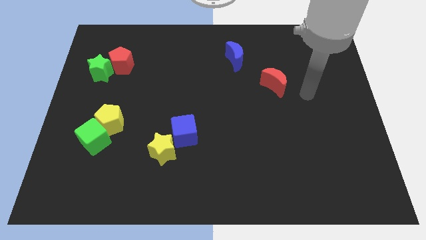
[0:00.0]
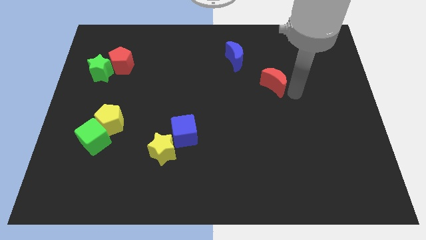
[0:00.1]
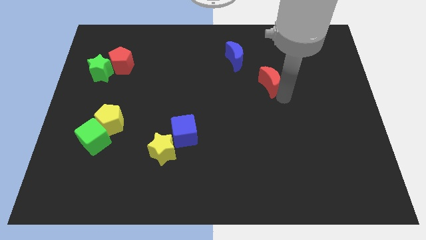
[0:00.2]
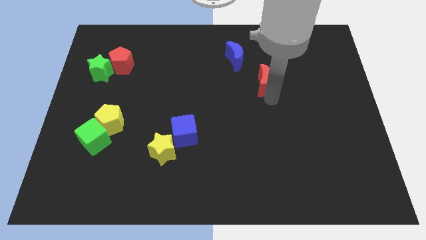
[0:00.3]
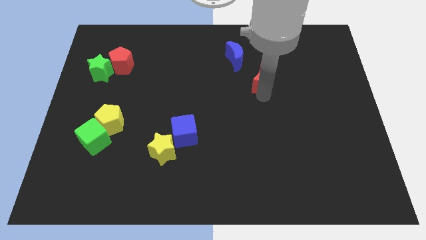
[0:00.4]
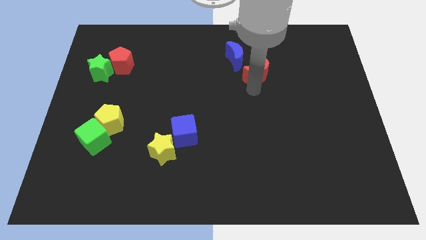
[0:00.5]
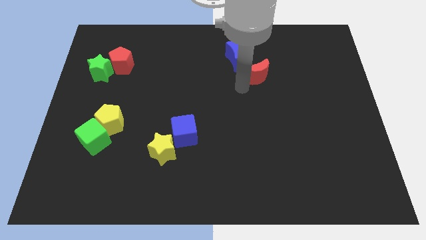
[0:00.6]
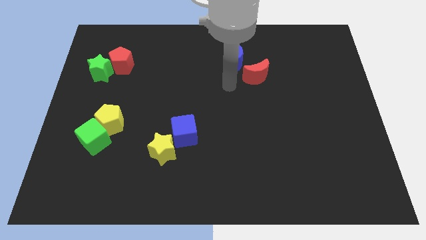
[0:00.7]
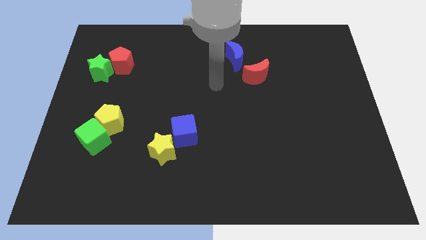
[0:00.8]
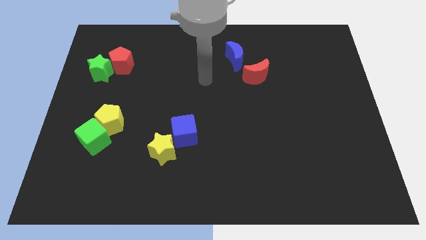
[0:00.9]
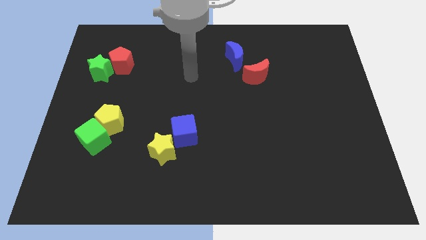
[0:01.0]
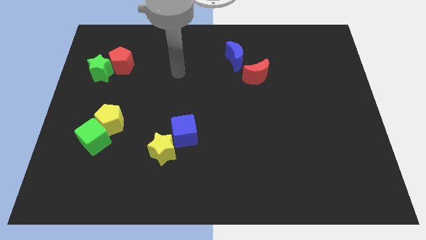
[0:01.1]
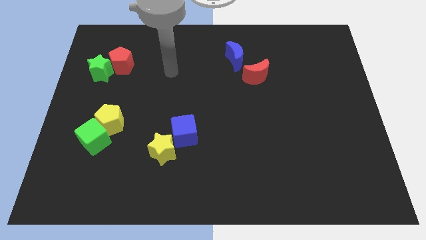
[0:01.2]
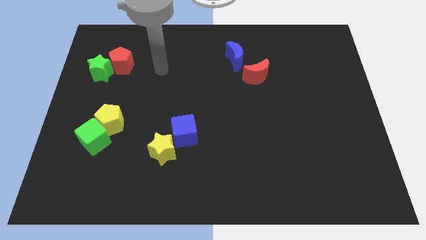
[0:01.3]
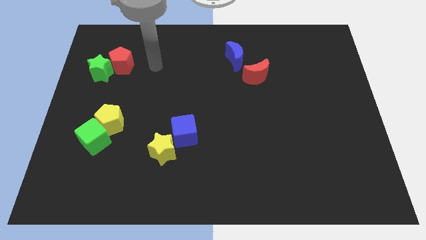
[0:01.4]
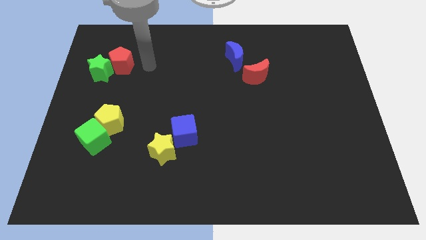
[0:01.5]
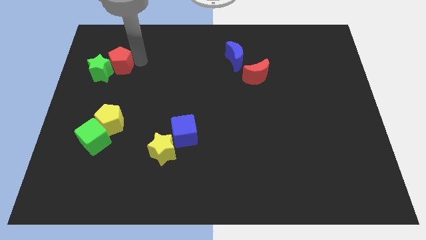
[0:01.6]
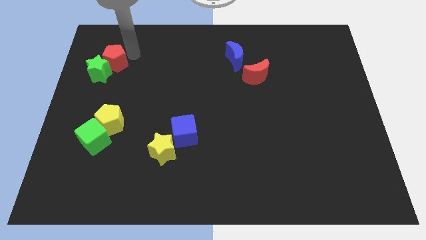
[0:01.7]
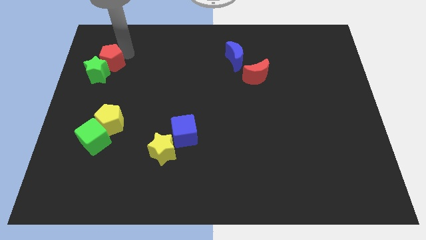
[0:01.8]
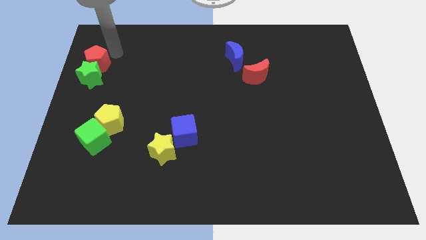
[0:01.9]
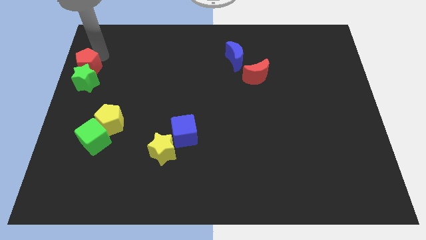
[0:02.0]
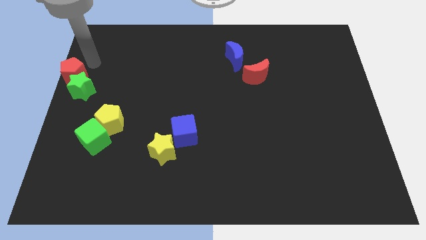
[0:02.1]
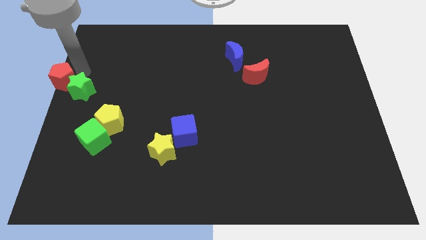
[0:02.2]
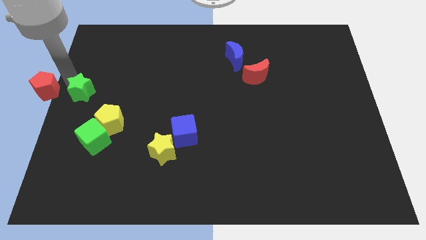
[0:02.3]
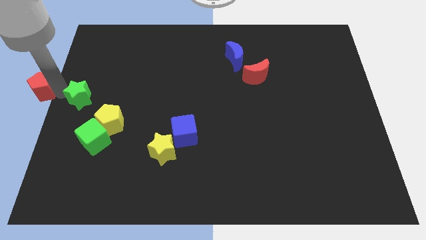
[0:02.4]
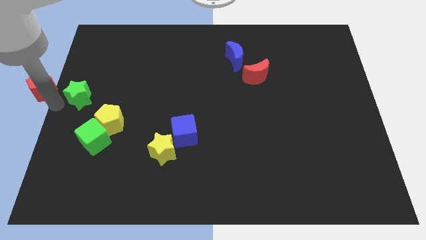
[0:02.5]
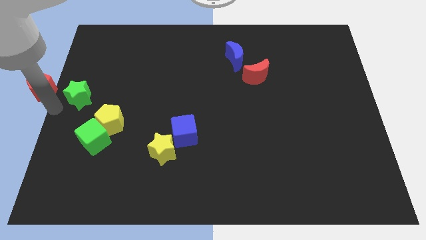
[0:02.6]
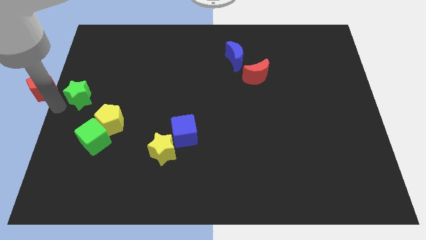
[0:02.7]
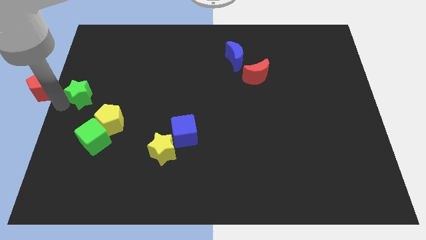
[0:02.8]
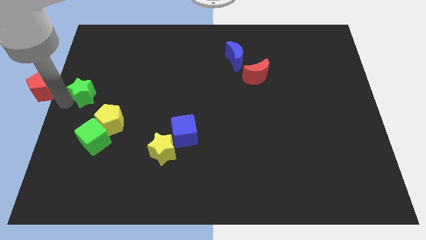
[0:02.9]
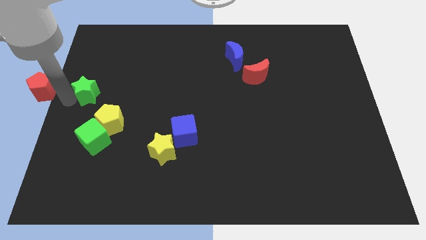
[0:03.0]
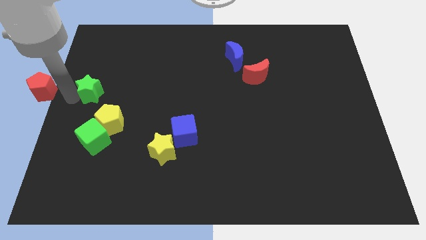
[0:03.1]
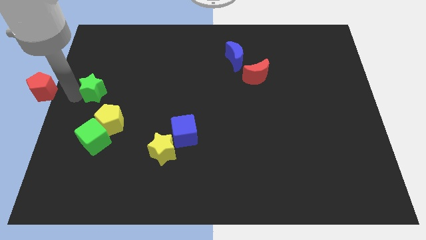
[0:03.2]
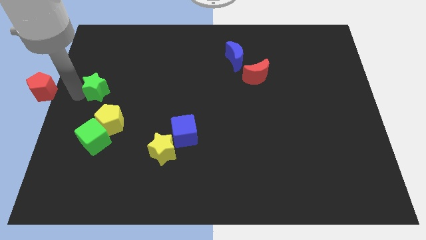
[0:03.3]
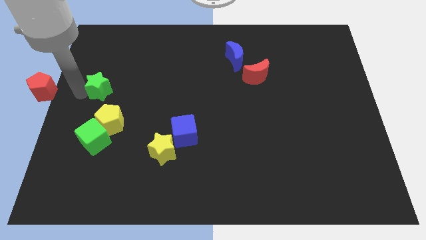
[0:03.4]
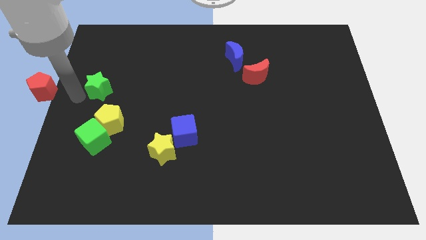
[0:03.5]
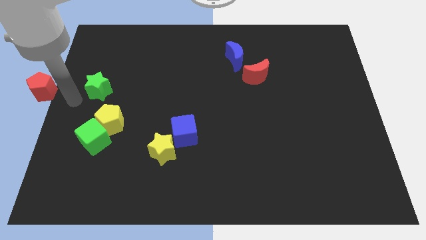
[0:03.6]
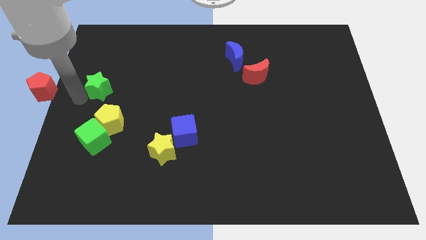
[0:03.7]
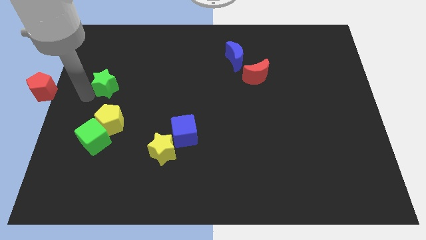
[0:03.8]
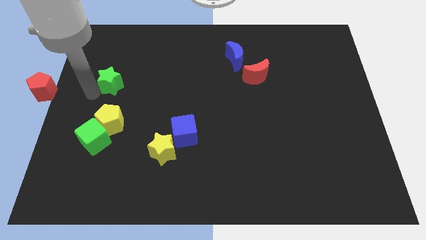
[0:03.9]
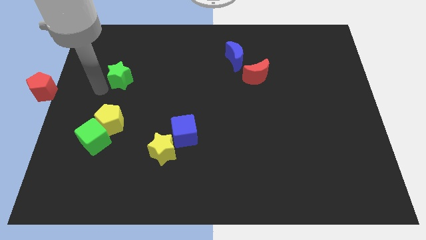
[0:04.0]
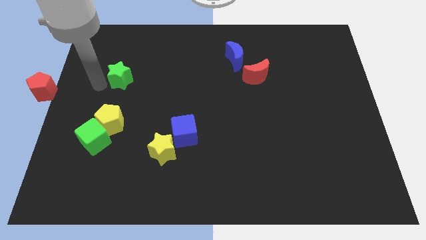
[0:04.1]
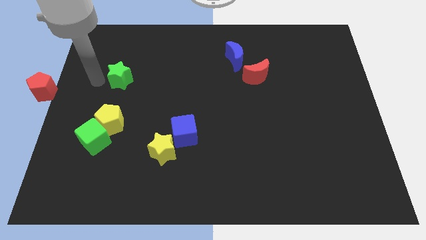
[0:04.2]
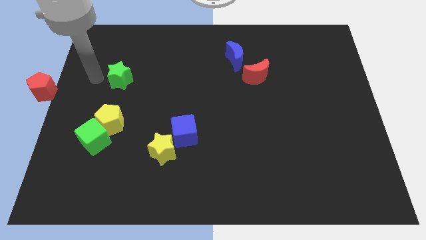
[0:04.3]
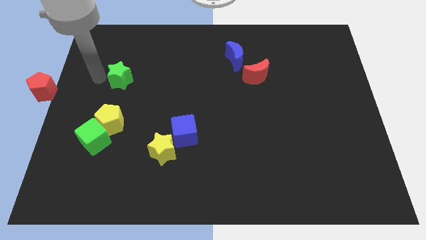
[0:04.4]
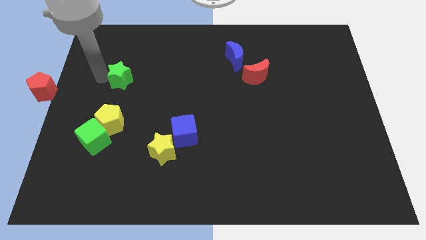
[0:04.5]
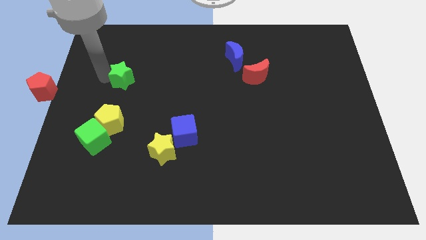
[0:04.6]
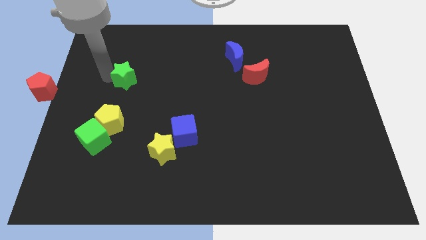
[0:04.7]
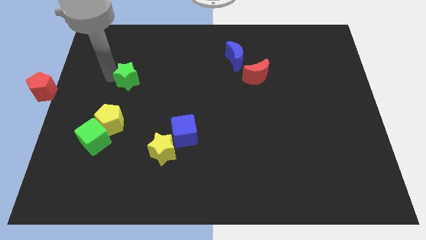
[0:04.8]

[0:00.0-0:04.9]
push the green star right a bit

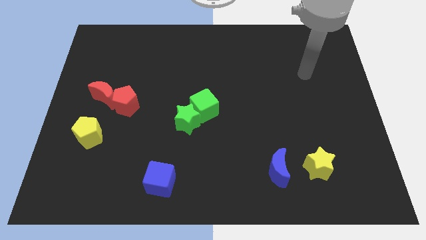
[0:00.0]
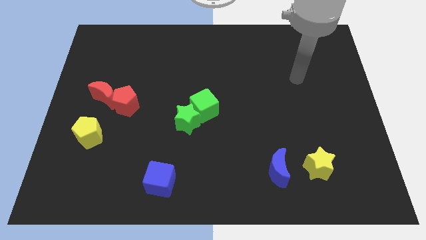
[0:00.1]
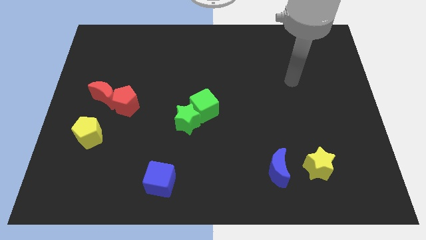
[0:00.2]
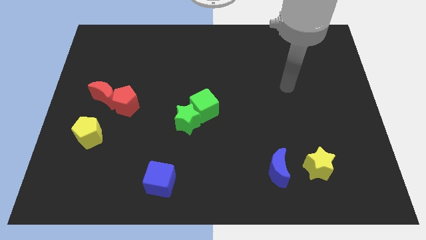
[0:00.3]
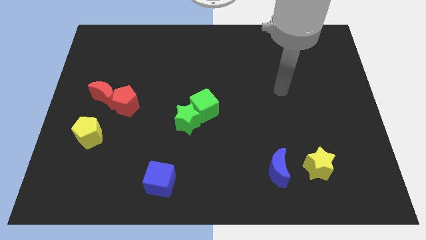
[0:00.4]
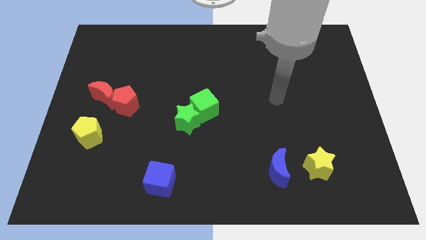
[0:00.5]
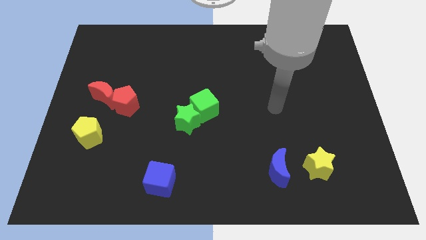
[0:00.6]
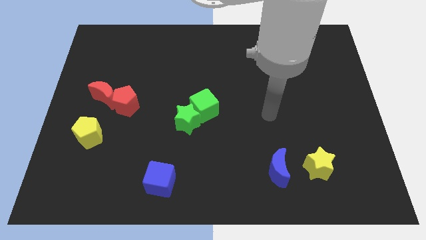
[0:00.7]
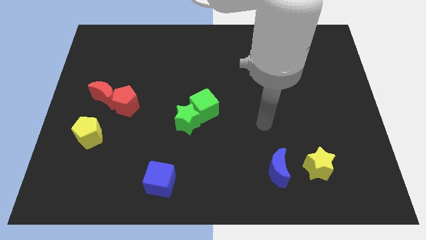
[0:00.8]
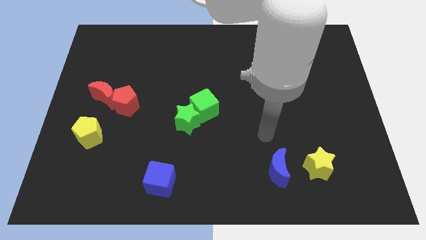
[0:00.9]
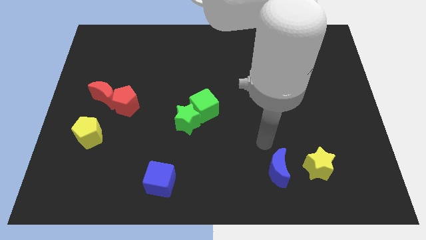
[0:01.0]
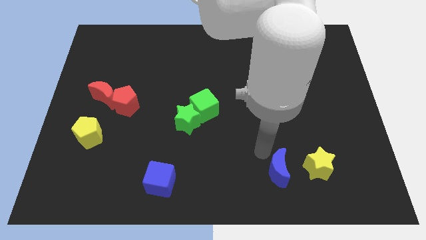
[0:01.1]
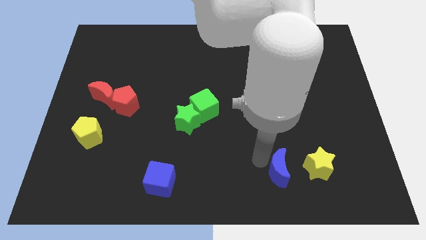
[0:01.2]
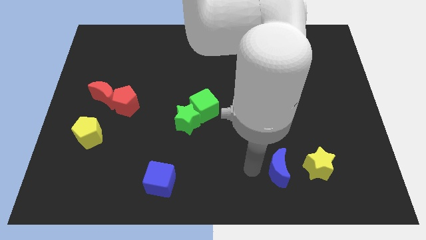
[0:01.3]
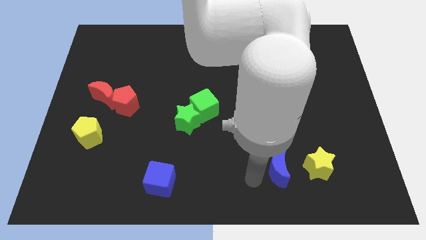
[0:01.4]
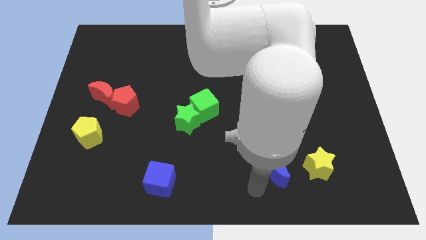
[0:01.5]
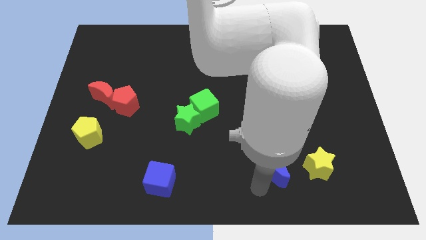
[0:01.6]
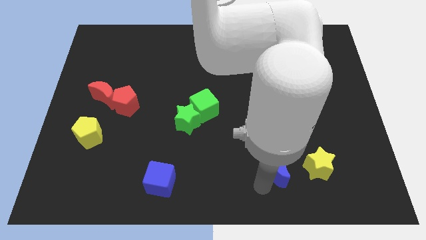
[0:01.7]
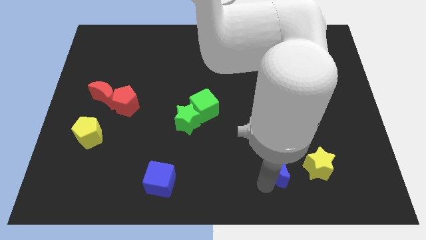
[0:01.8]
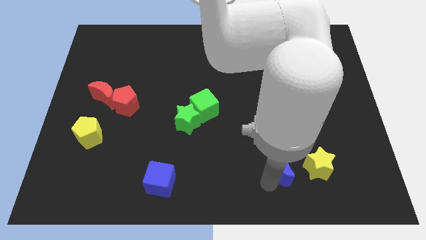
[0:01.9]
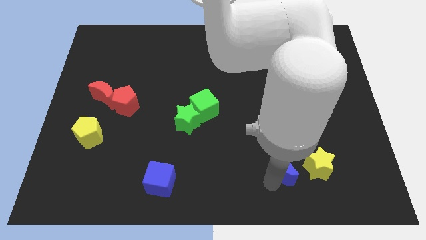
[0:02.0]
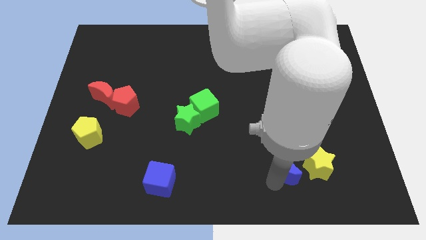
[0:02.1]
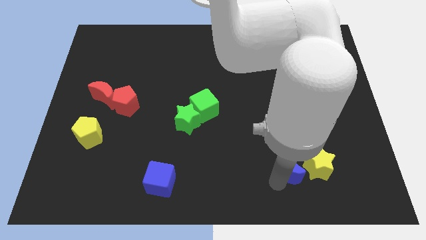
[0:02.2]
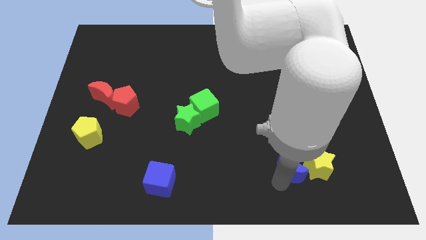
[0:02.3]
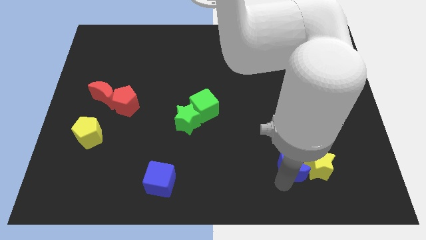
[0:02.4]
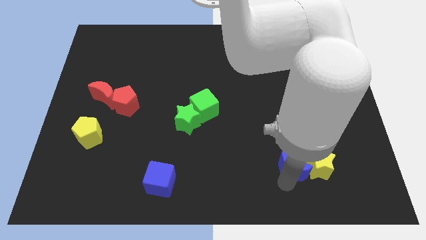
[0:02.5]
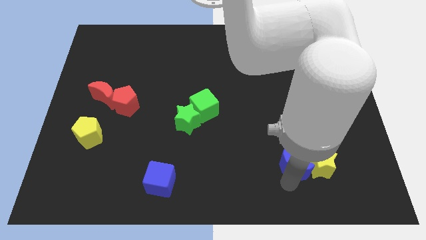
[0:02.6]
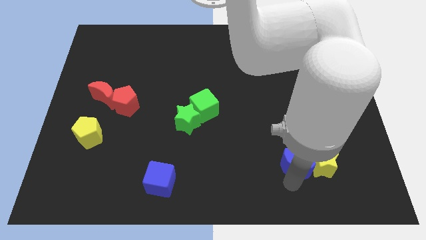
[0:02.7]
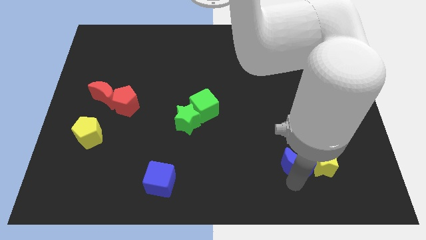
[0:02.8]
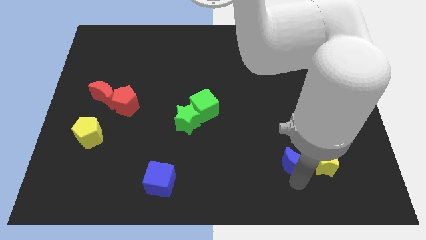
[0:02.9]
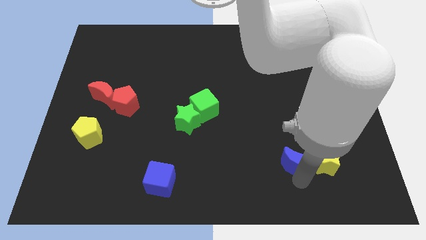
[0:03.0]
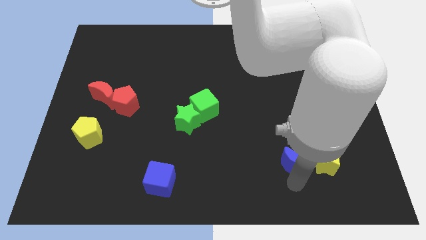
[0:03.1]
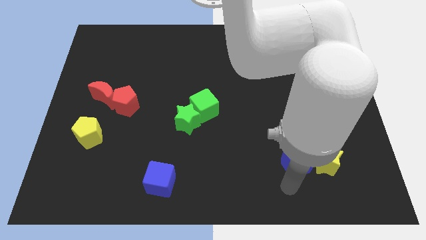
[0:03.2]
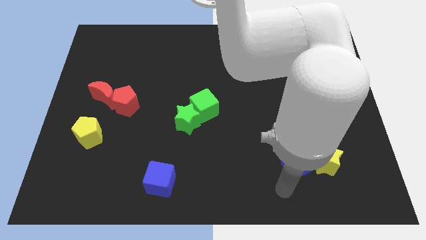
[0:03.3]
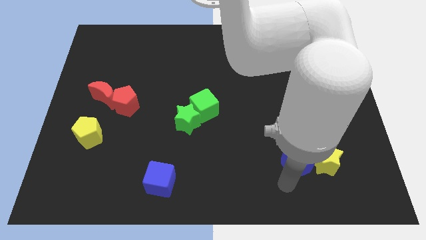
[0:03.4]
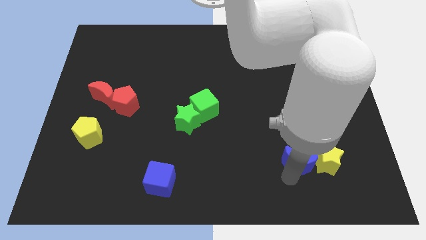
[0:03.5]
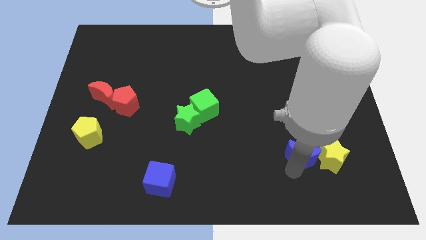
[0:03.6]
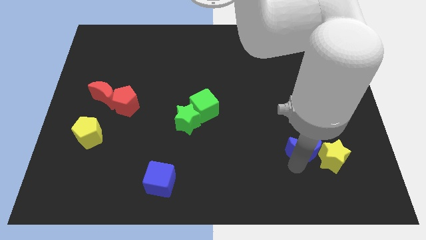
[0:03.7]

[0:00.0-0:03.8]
slightly slide the blue moon up and then to the right
